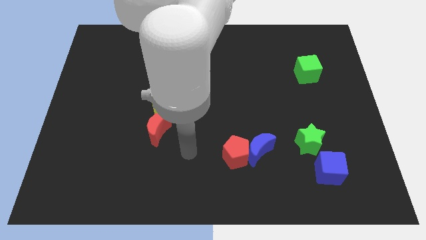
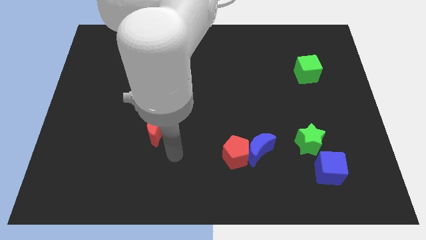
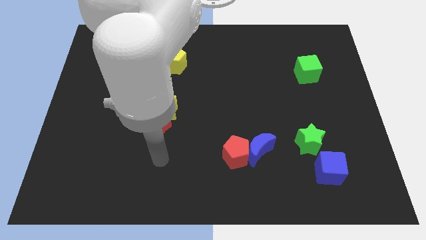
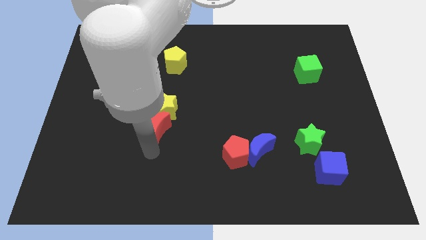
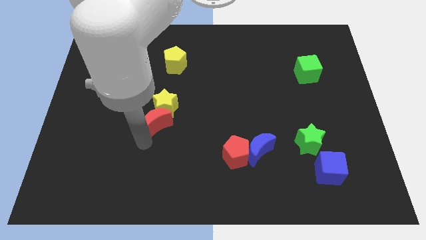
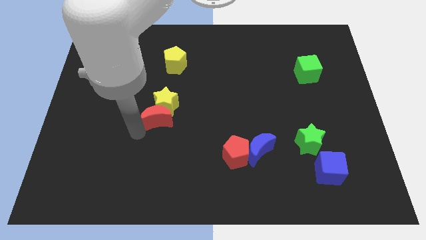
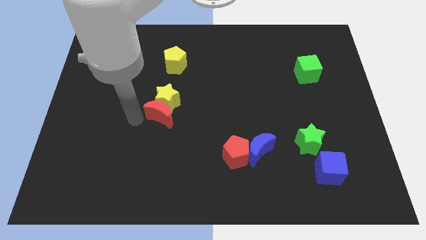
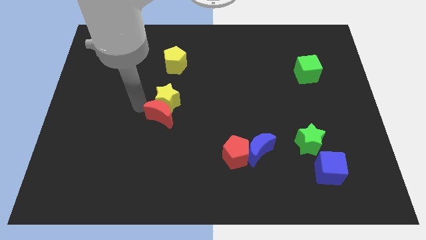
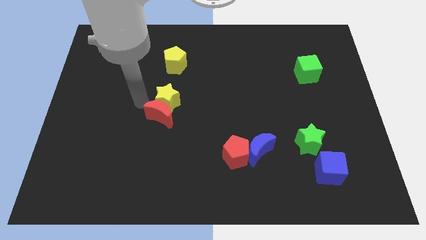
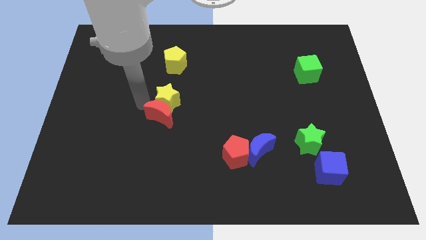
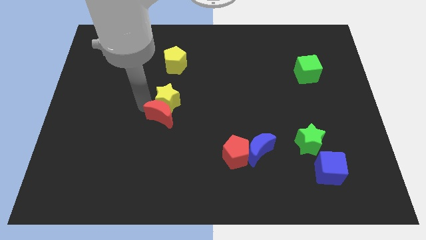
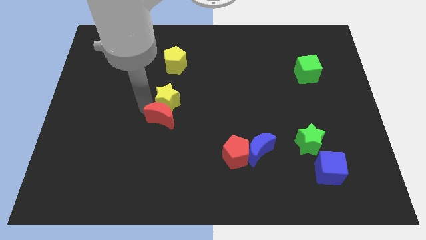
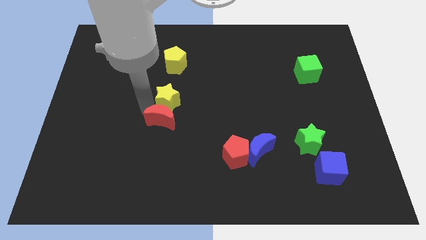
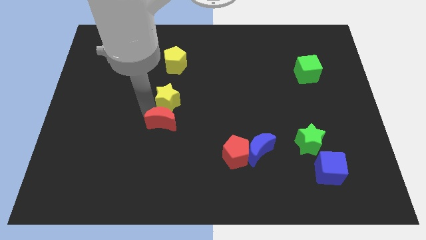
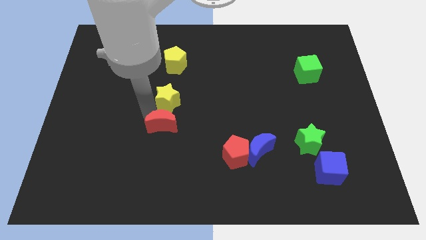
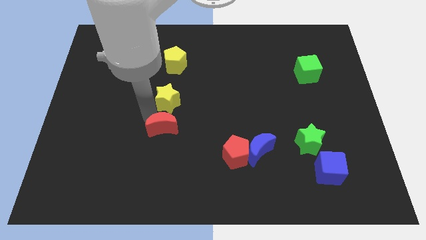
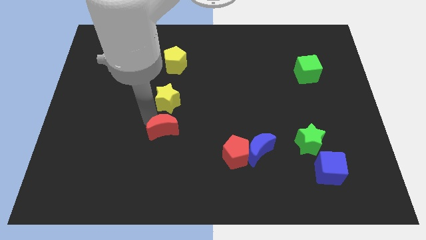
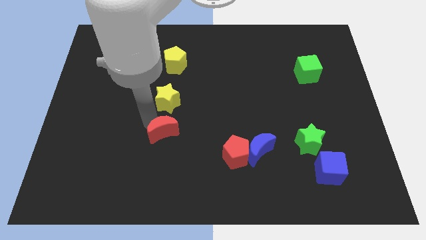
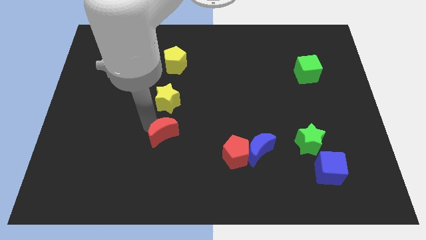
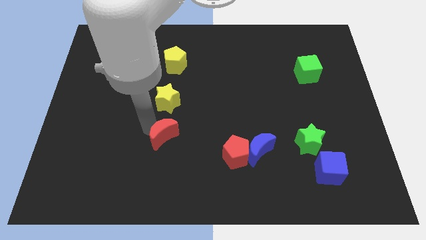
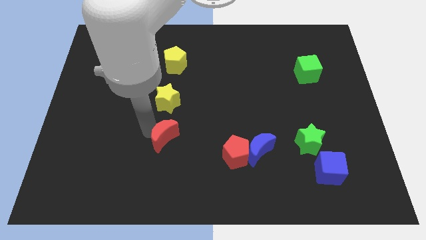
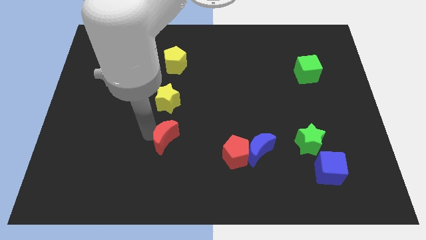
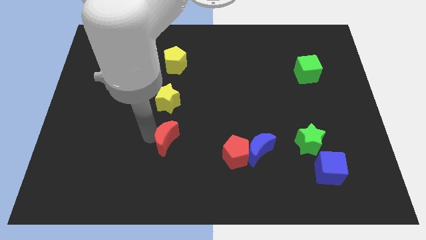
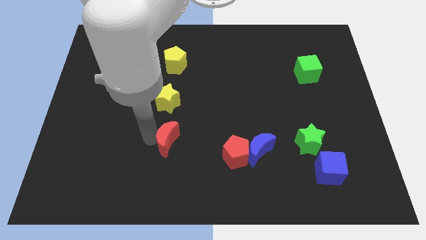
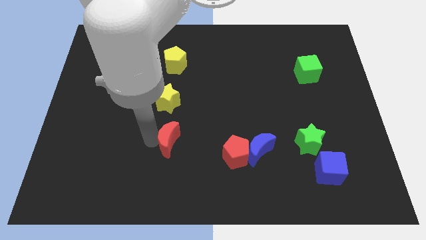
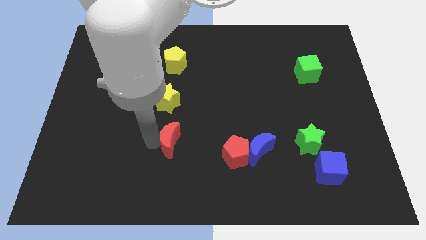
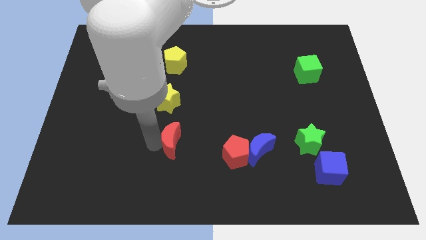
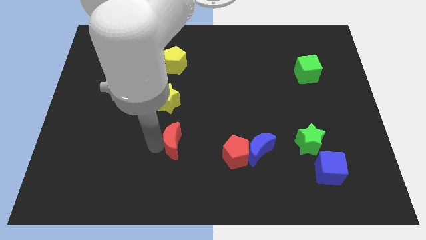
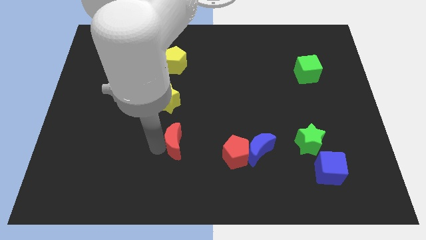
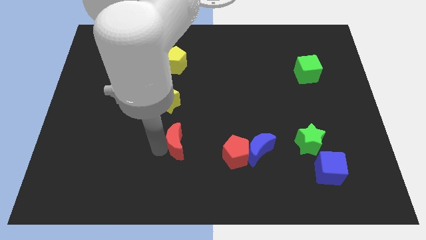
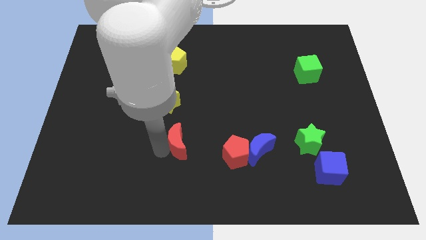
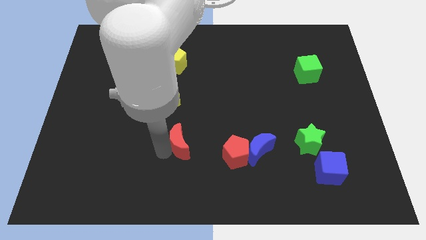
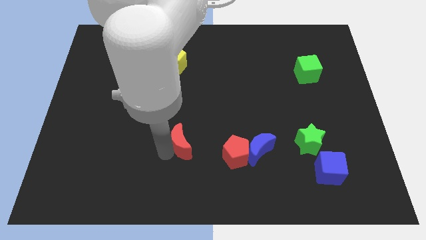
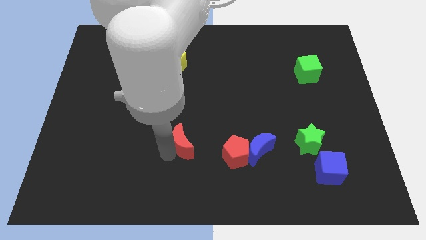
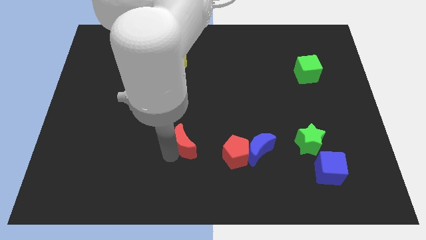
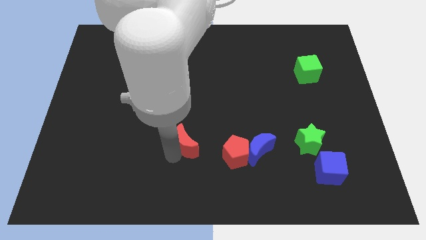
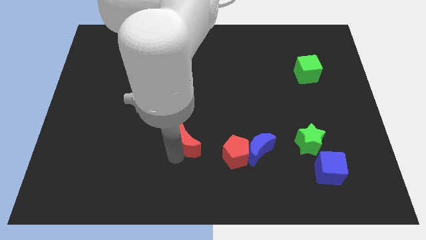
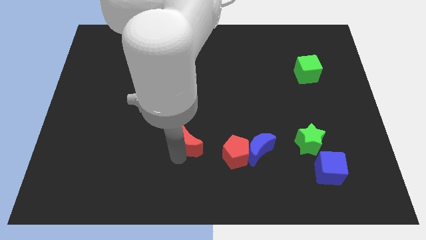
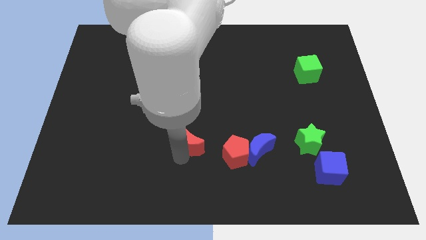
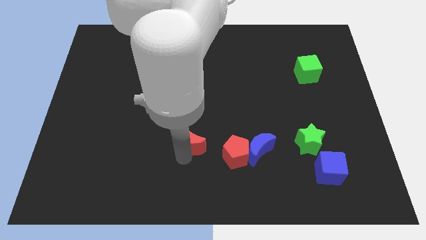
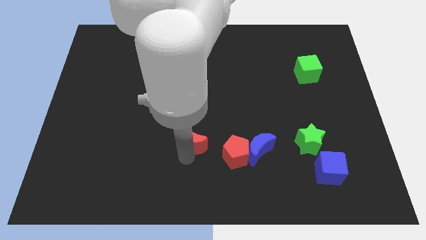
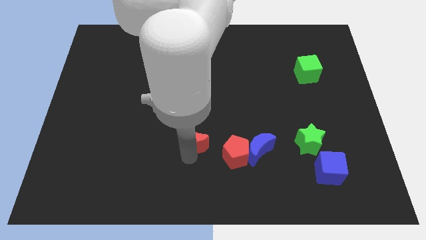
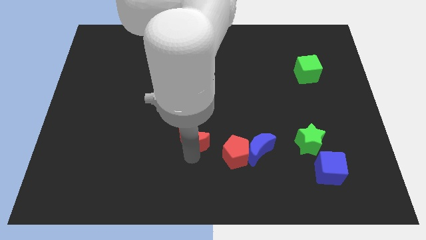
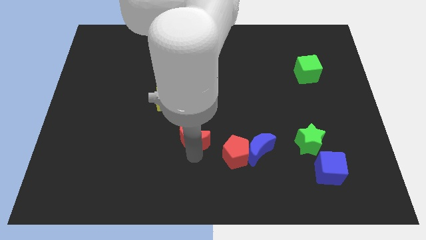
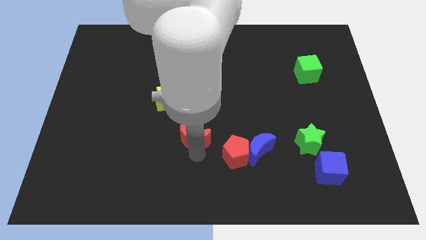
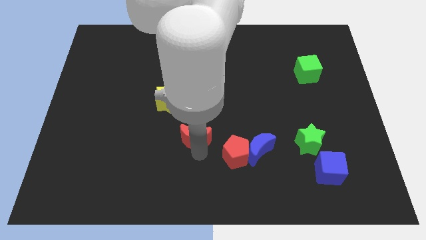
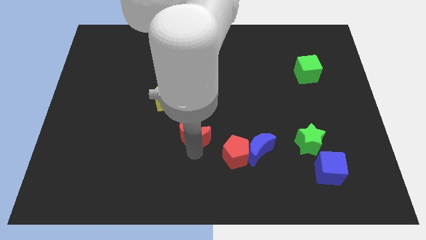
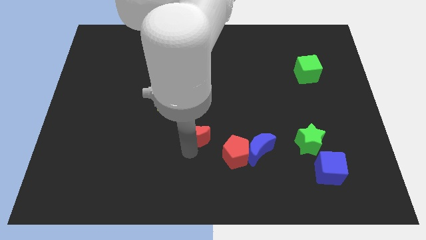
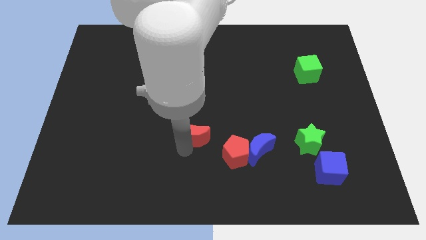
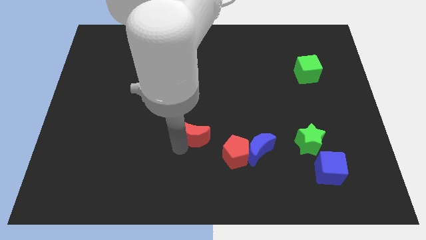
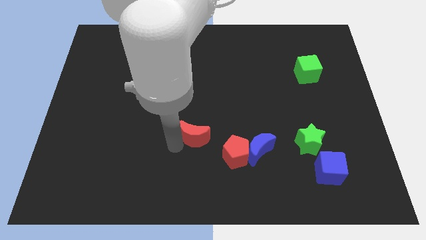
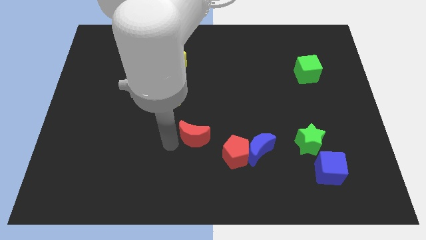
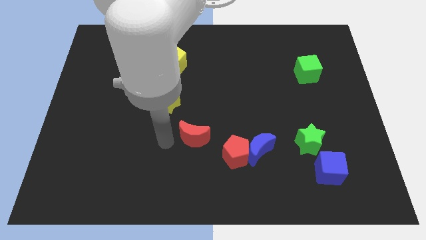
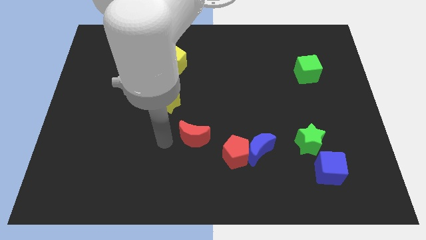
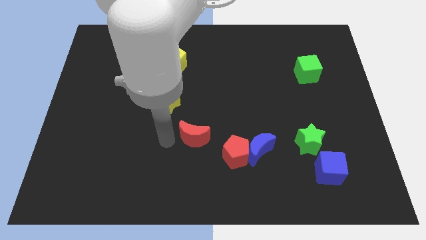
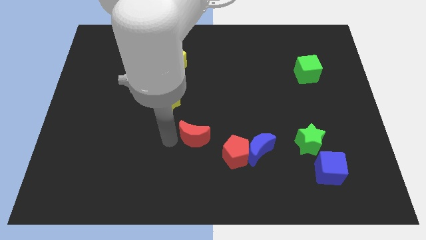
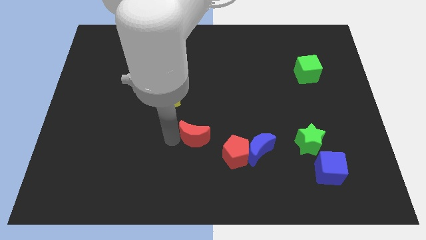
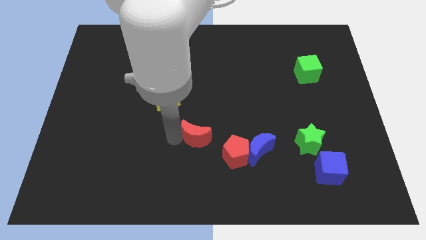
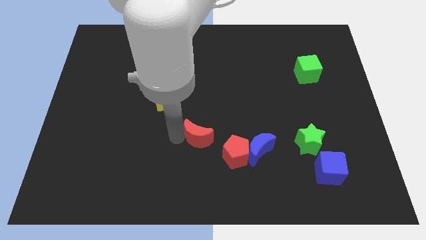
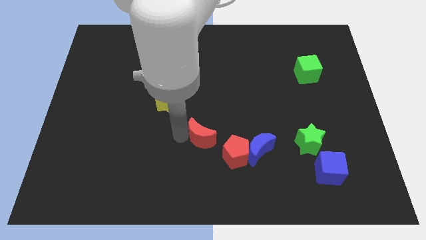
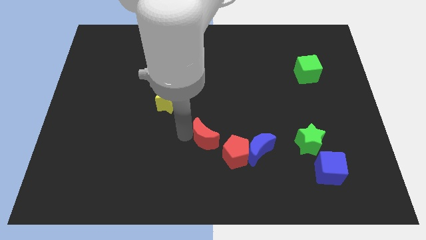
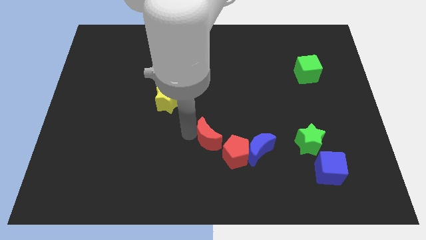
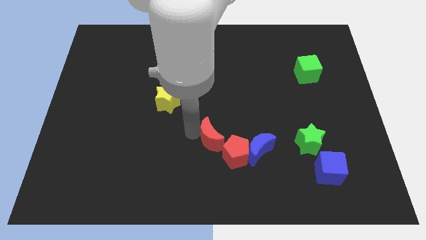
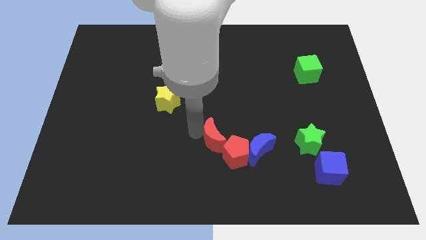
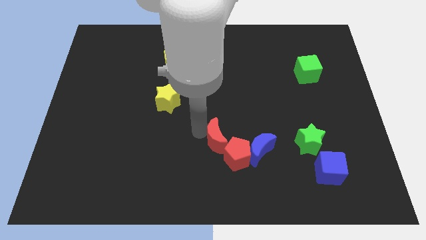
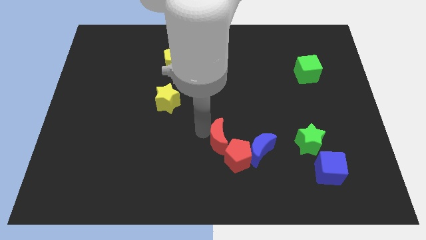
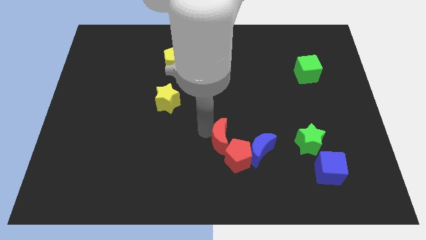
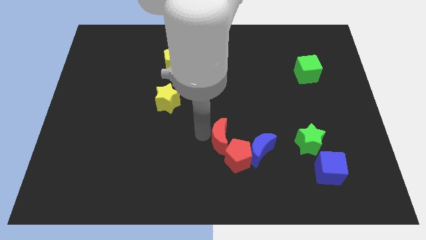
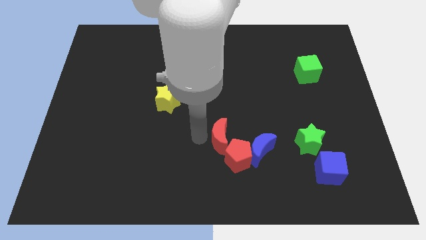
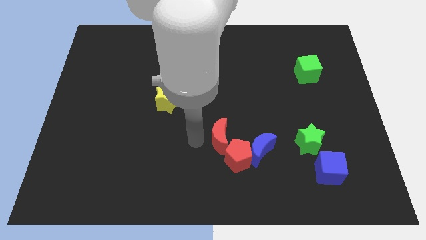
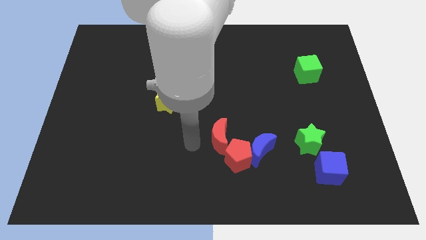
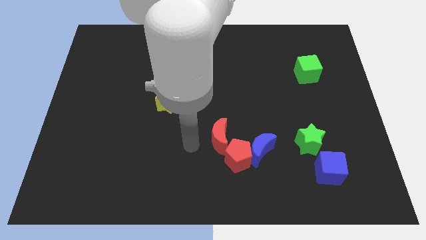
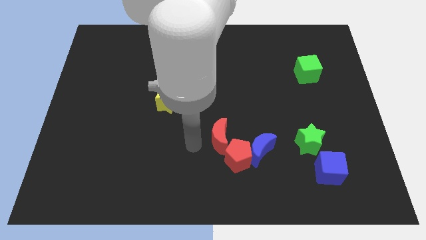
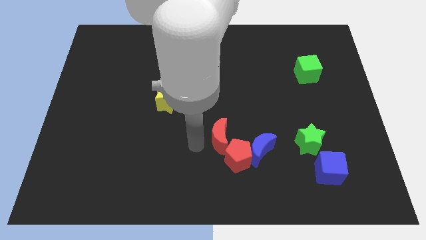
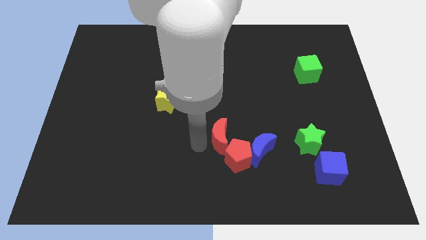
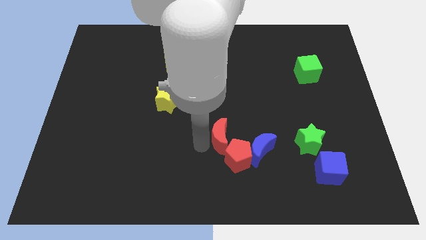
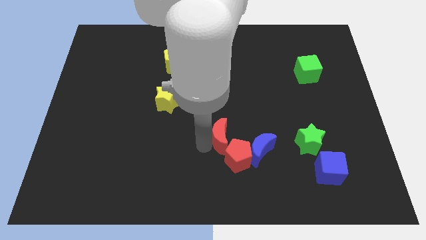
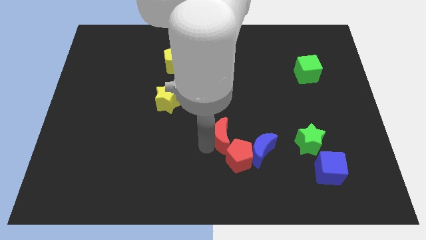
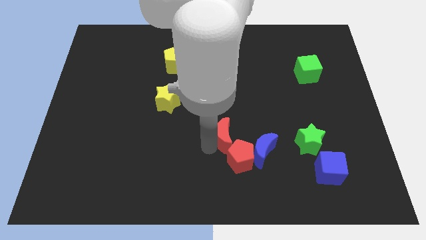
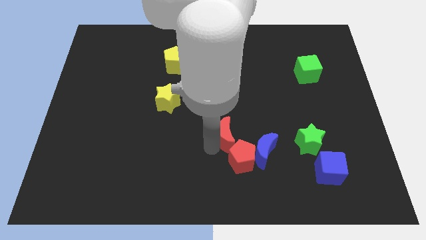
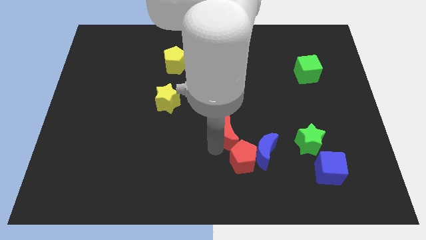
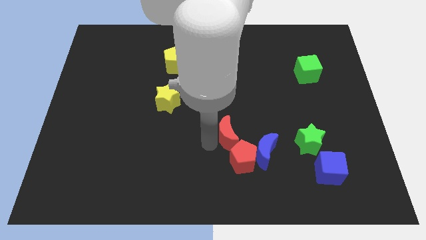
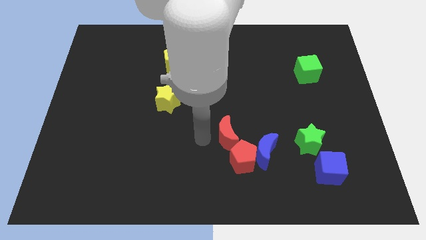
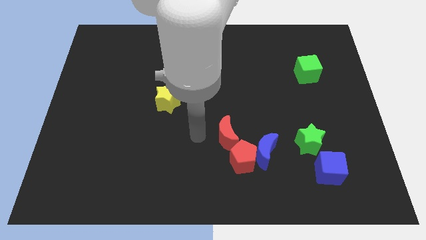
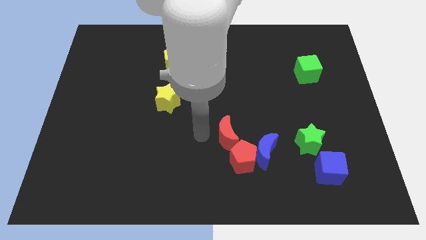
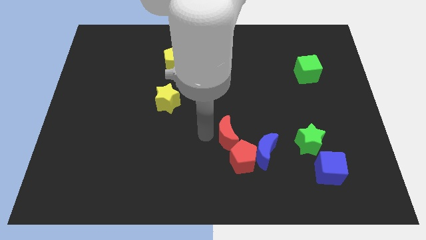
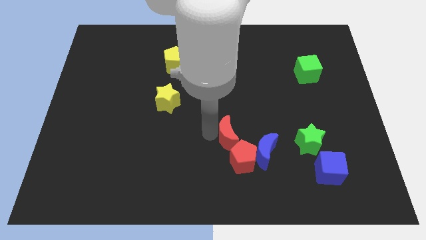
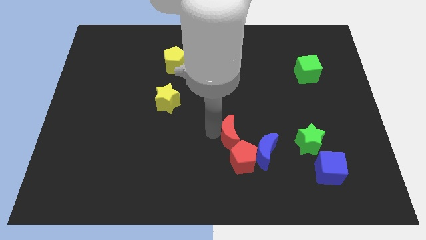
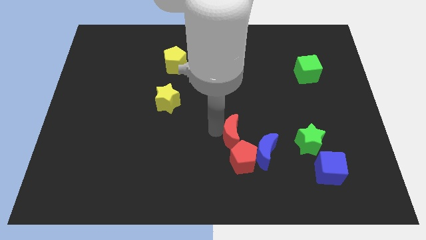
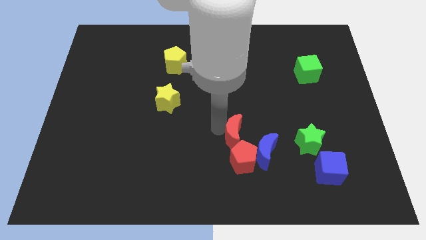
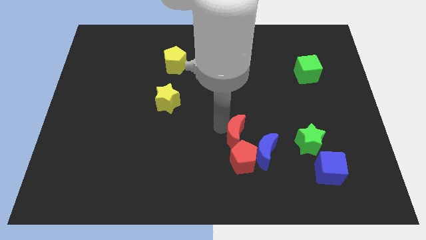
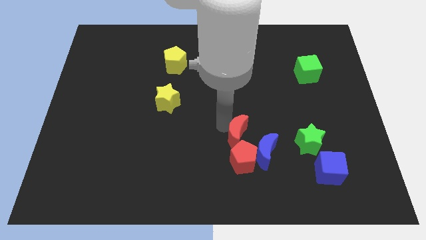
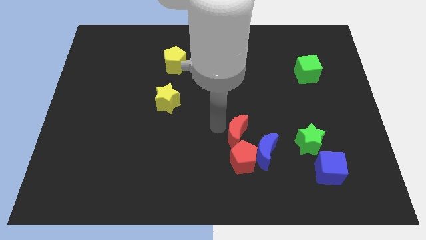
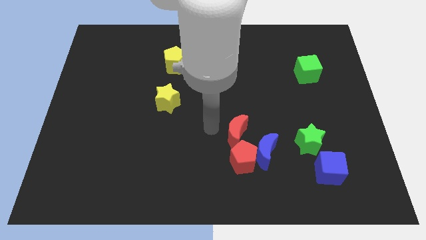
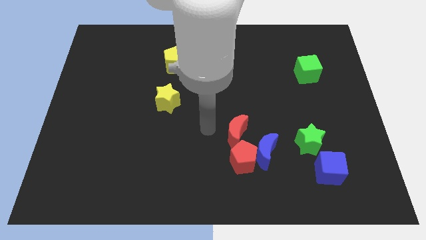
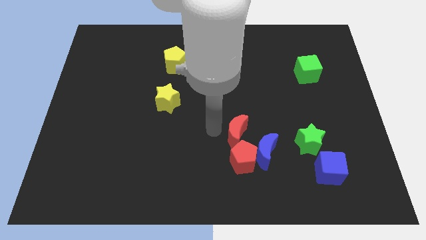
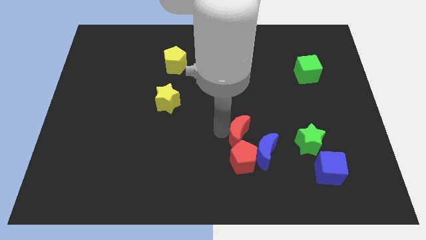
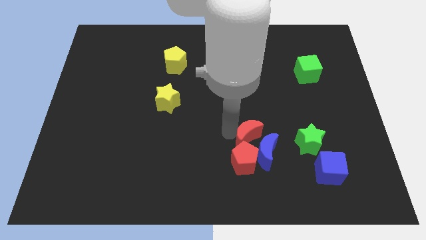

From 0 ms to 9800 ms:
slide the red moon to the top right of the red pentagon
